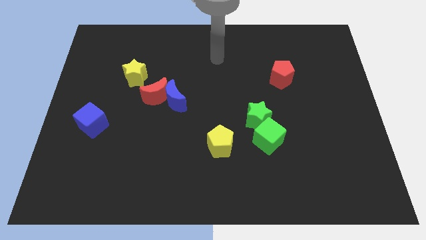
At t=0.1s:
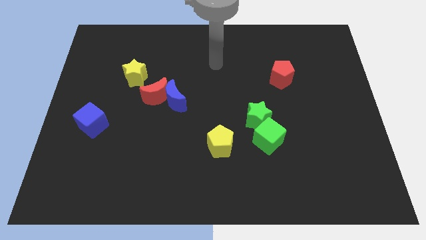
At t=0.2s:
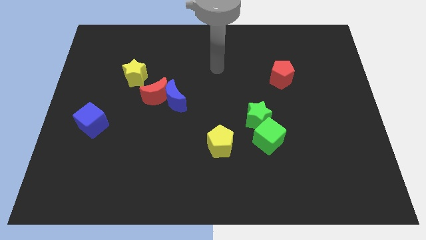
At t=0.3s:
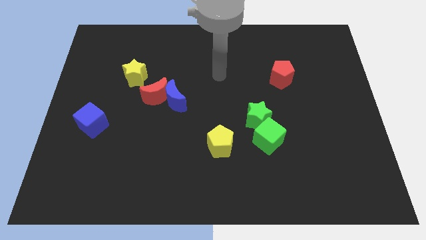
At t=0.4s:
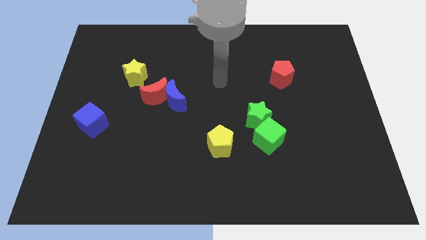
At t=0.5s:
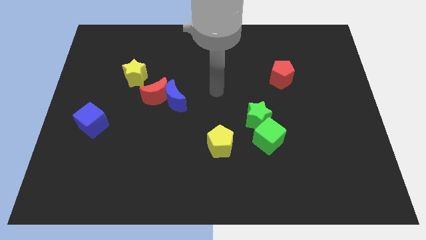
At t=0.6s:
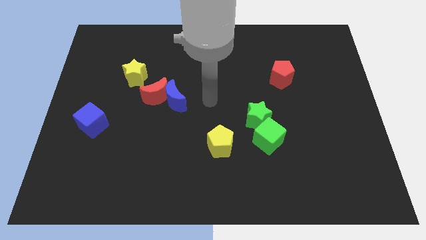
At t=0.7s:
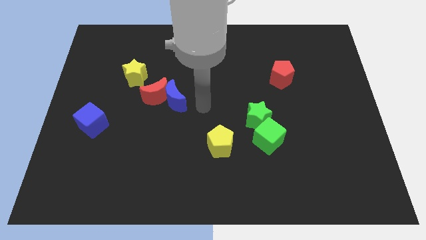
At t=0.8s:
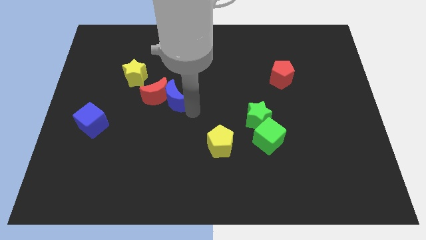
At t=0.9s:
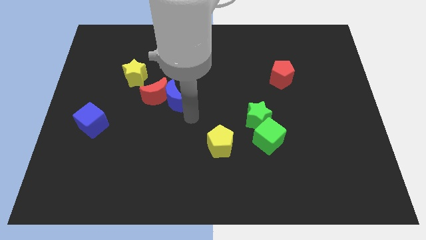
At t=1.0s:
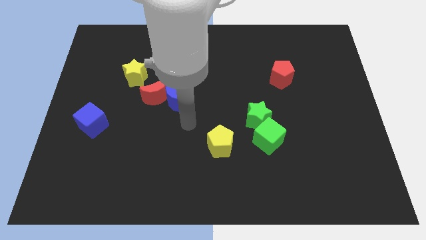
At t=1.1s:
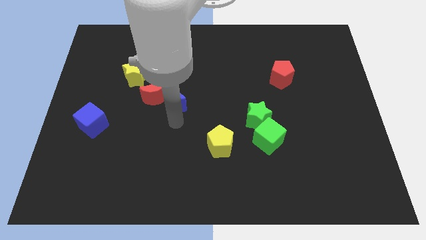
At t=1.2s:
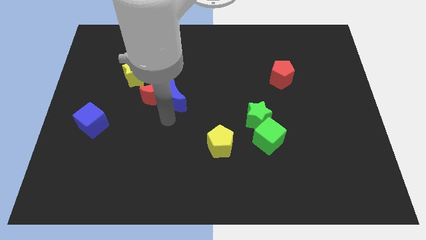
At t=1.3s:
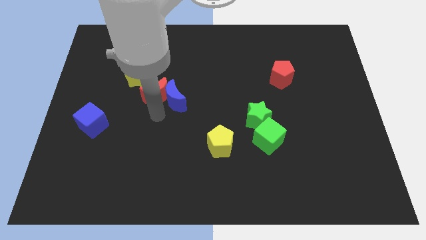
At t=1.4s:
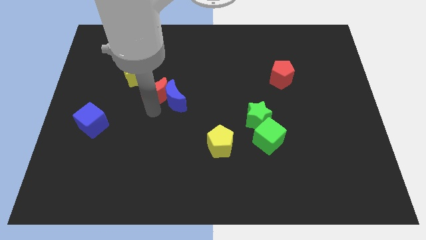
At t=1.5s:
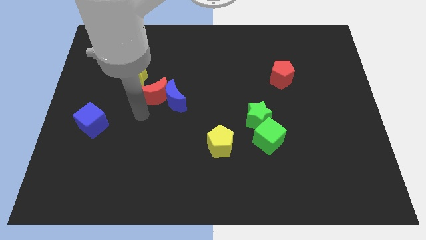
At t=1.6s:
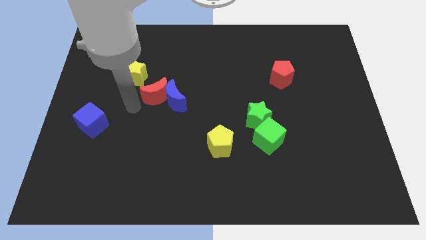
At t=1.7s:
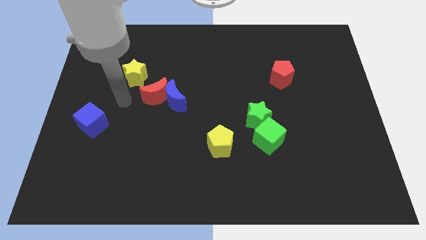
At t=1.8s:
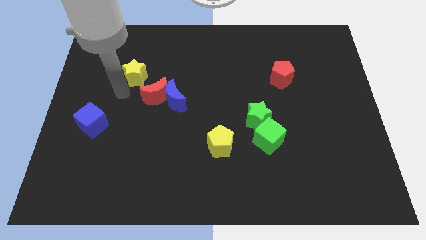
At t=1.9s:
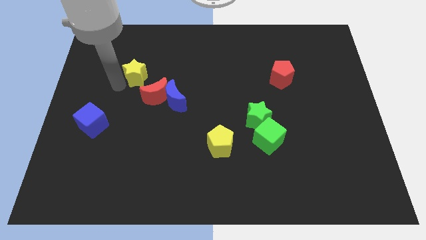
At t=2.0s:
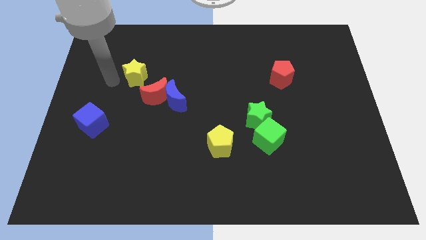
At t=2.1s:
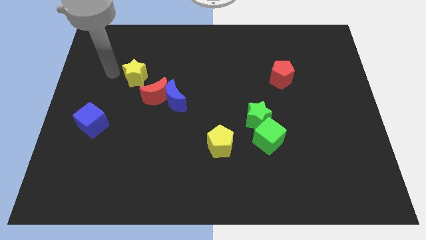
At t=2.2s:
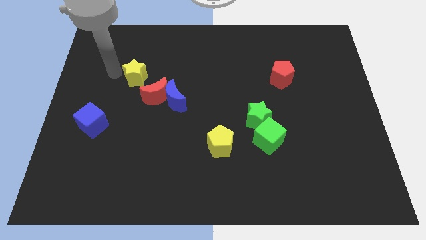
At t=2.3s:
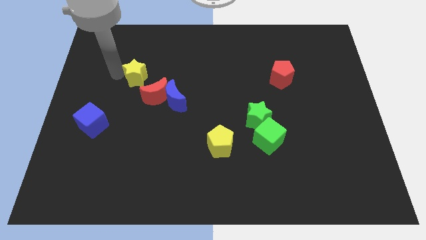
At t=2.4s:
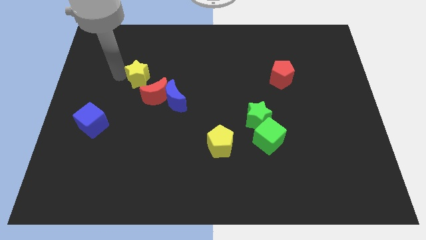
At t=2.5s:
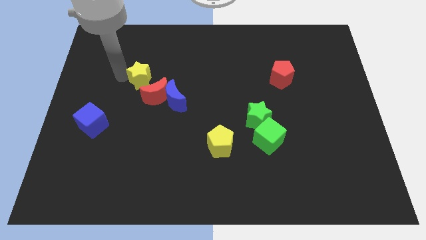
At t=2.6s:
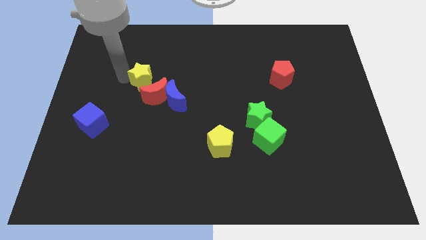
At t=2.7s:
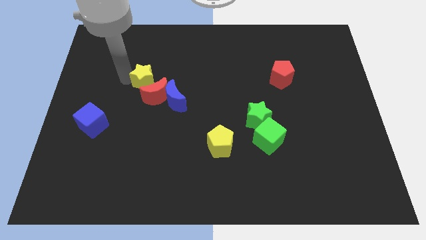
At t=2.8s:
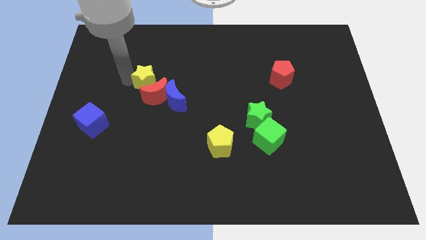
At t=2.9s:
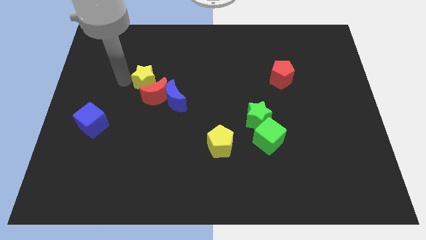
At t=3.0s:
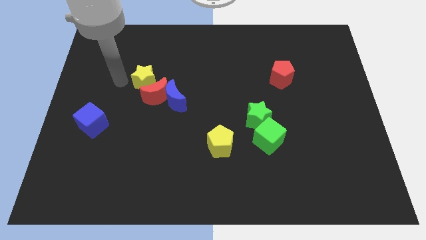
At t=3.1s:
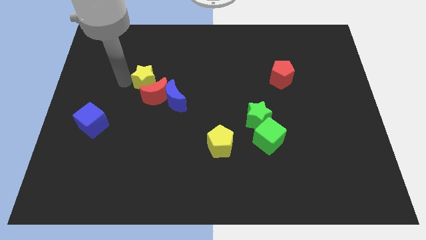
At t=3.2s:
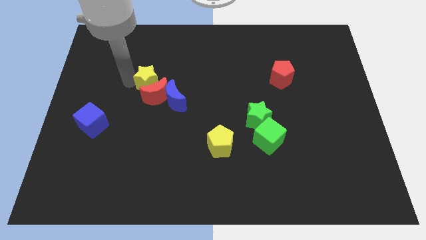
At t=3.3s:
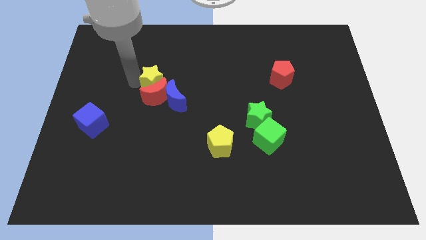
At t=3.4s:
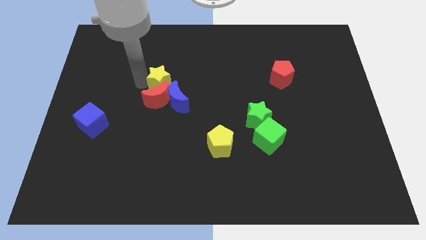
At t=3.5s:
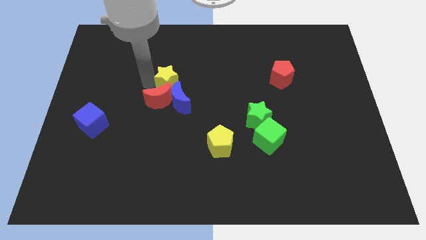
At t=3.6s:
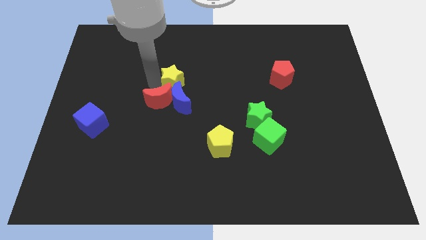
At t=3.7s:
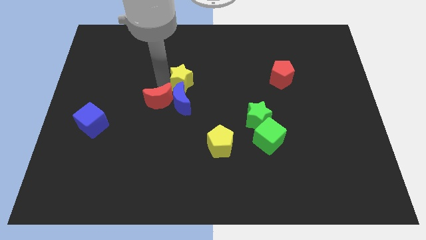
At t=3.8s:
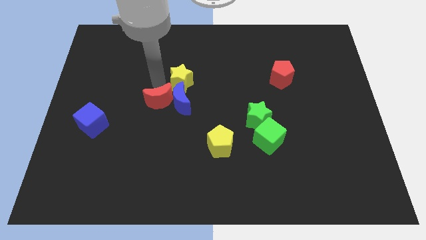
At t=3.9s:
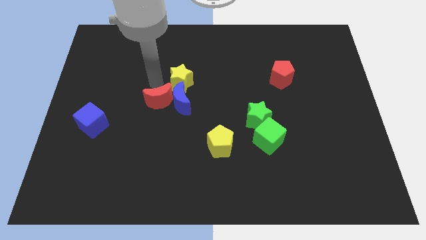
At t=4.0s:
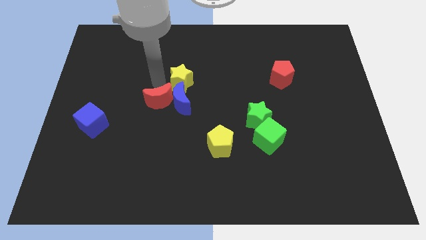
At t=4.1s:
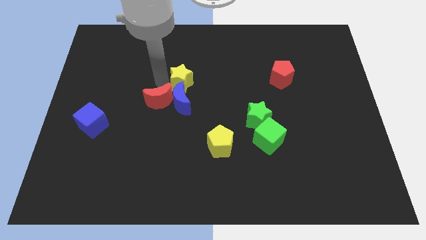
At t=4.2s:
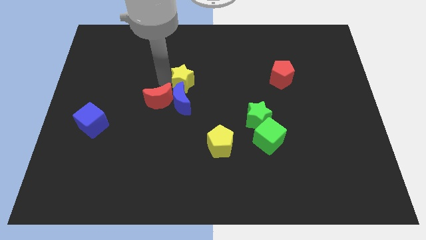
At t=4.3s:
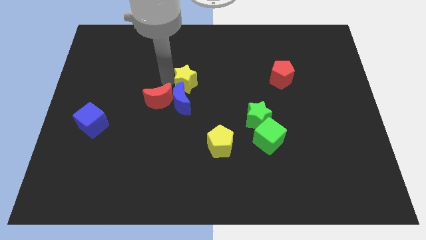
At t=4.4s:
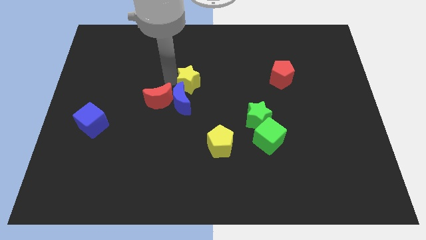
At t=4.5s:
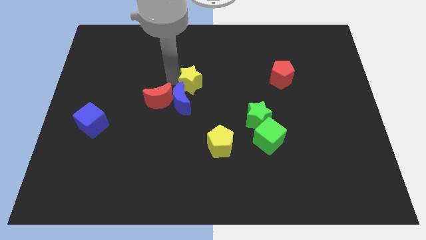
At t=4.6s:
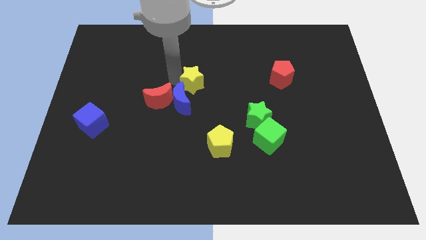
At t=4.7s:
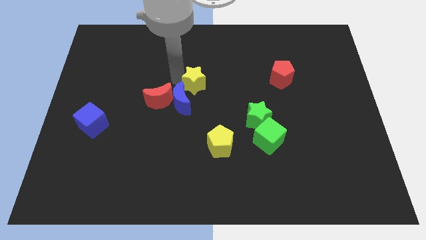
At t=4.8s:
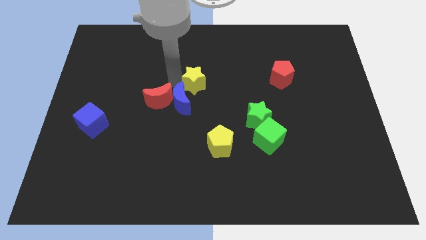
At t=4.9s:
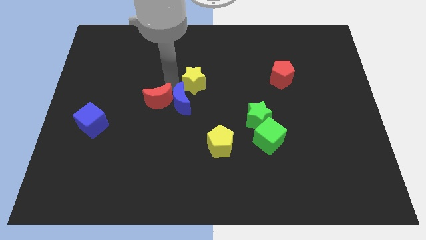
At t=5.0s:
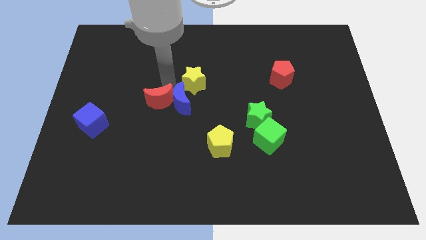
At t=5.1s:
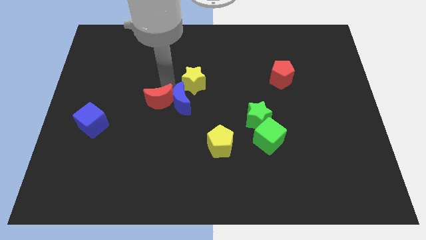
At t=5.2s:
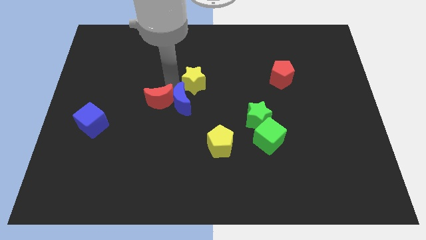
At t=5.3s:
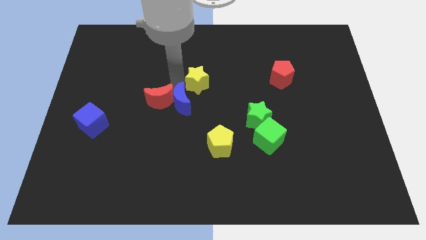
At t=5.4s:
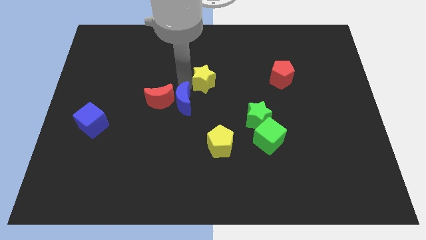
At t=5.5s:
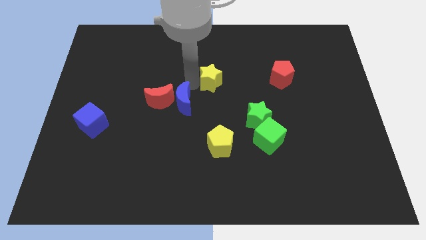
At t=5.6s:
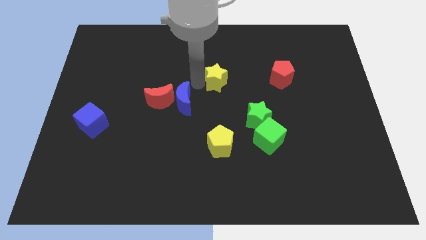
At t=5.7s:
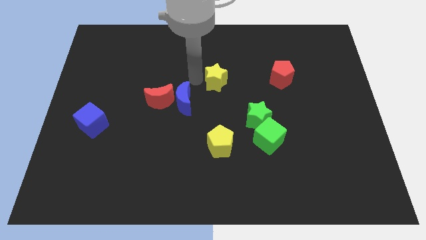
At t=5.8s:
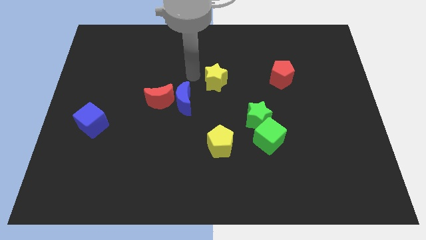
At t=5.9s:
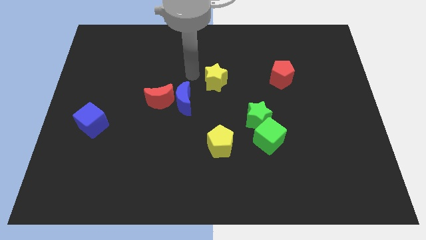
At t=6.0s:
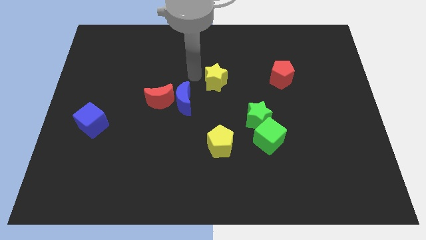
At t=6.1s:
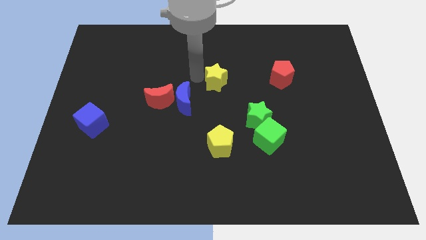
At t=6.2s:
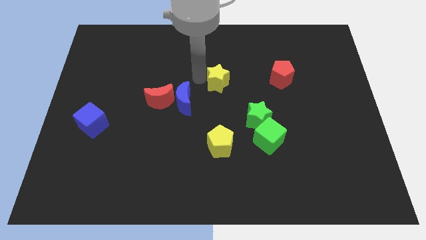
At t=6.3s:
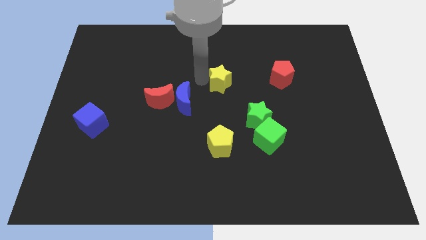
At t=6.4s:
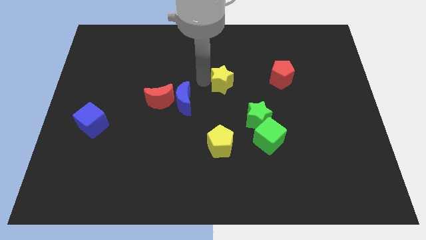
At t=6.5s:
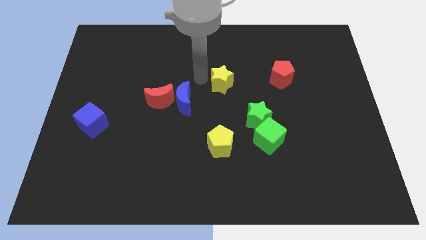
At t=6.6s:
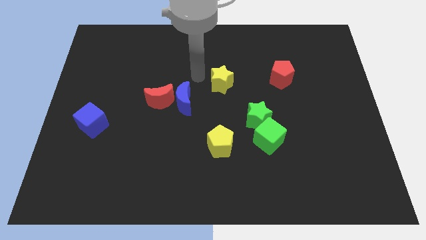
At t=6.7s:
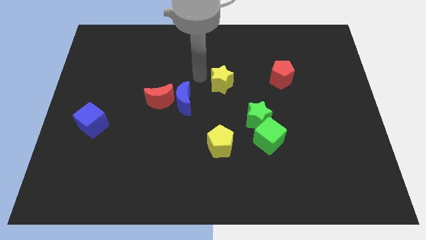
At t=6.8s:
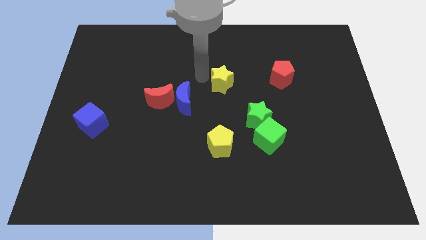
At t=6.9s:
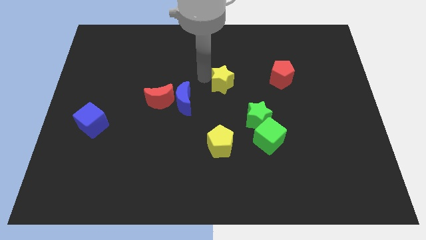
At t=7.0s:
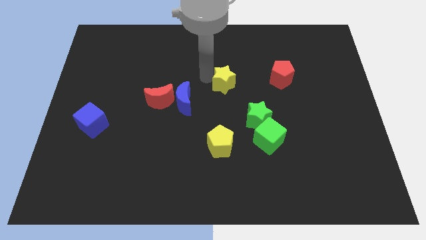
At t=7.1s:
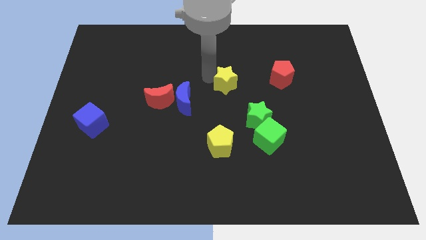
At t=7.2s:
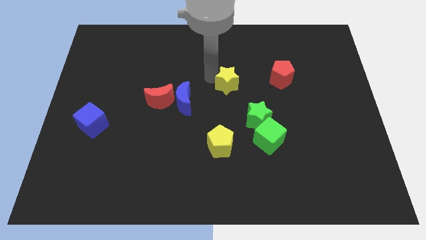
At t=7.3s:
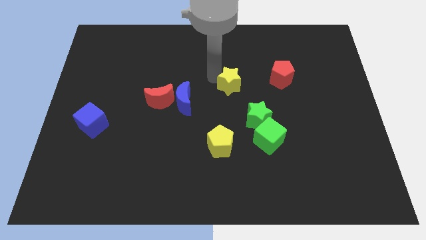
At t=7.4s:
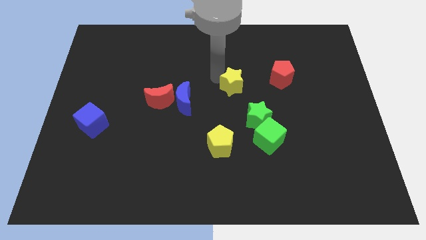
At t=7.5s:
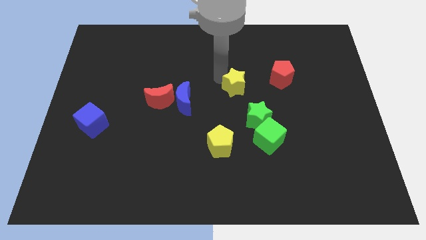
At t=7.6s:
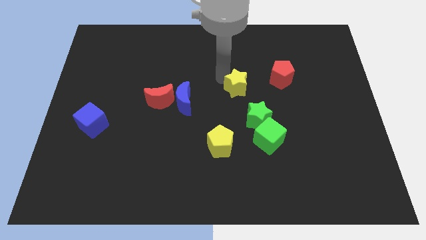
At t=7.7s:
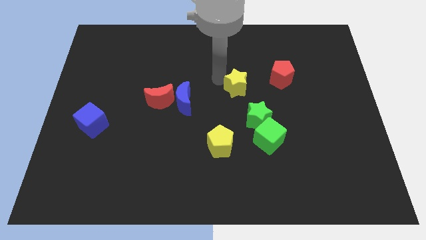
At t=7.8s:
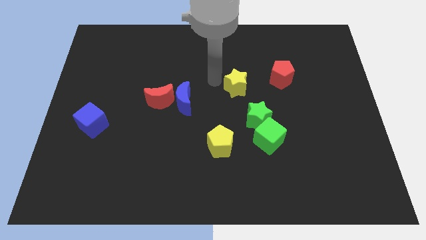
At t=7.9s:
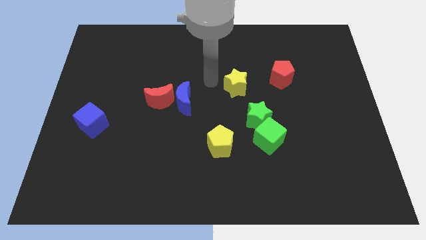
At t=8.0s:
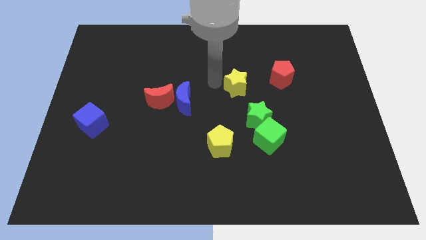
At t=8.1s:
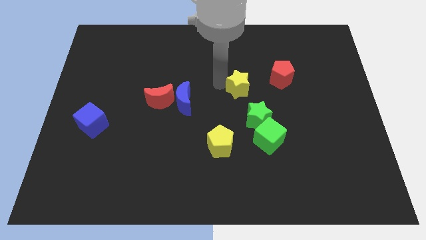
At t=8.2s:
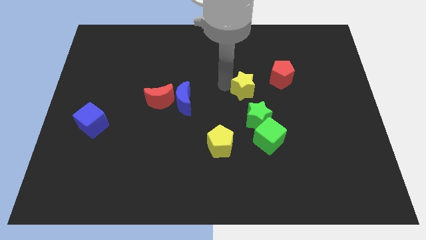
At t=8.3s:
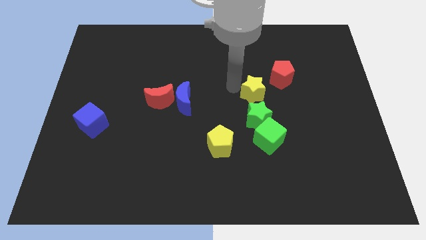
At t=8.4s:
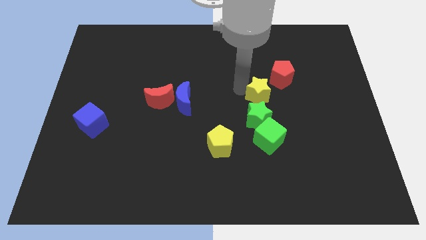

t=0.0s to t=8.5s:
push the yellow star diagonally up and to the right of the green star
